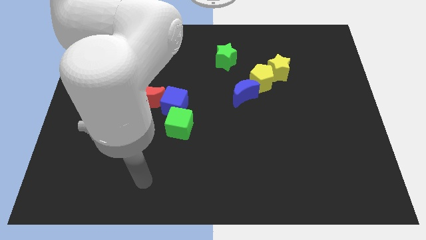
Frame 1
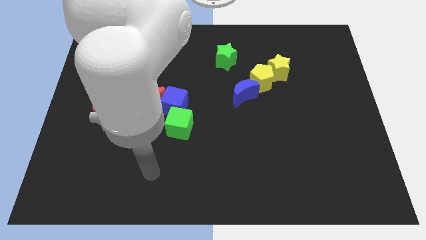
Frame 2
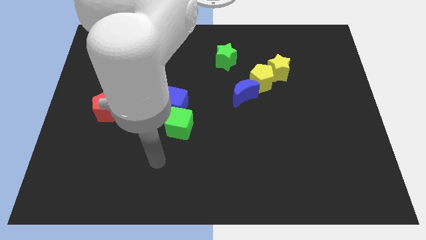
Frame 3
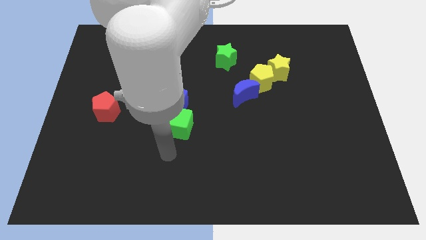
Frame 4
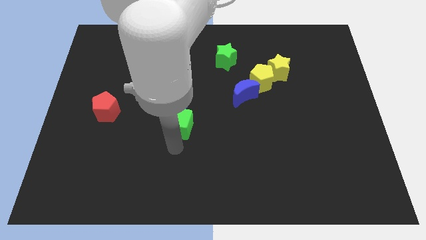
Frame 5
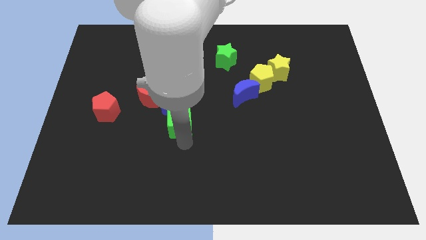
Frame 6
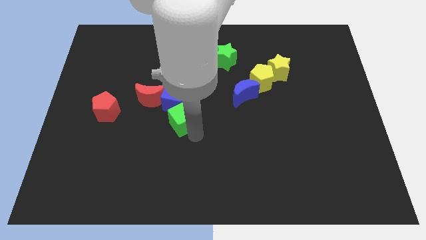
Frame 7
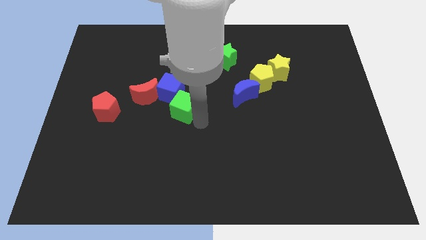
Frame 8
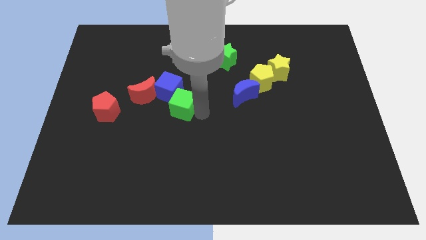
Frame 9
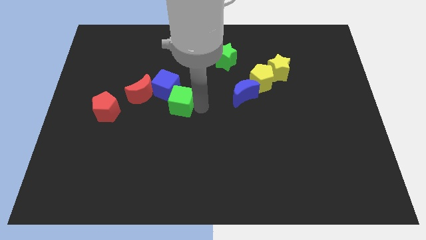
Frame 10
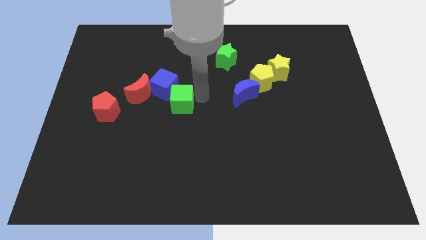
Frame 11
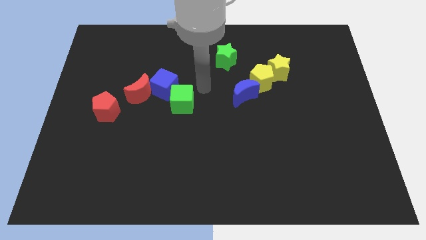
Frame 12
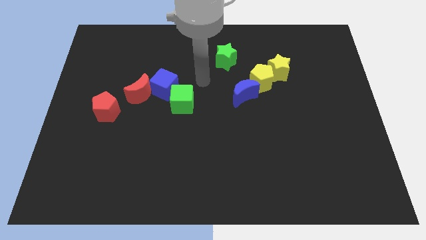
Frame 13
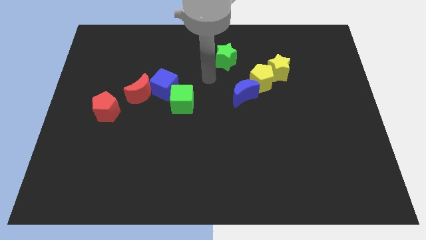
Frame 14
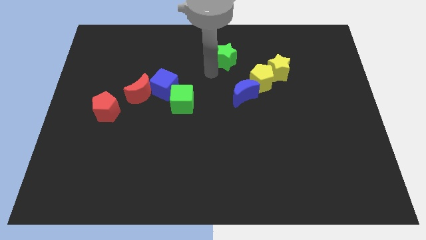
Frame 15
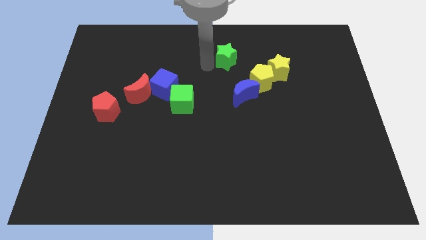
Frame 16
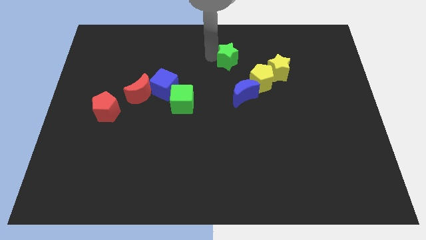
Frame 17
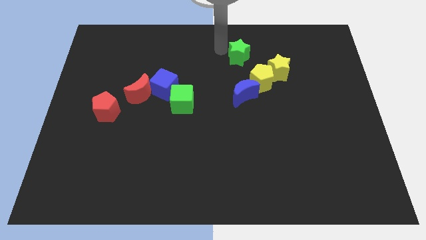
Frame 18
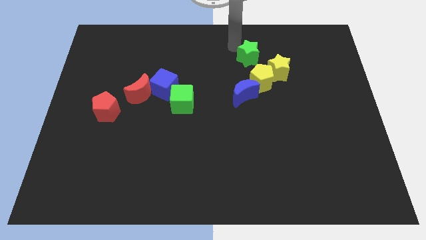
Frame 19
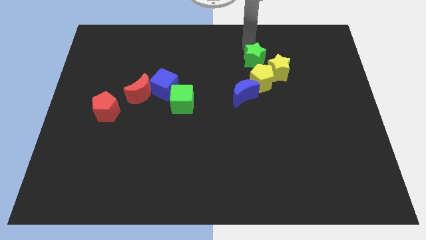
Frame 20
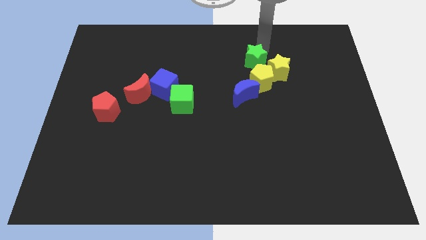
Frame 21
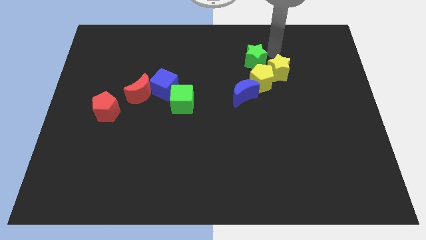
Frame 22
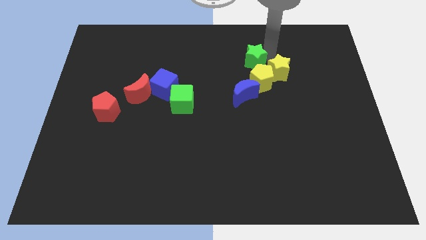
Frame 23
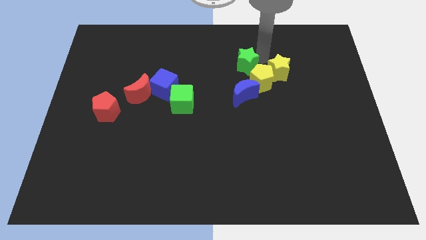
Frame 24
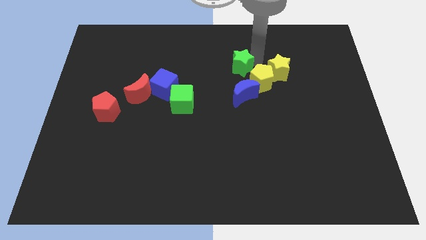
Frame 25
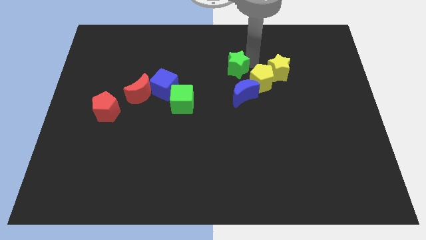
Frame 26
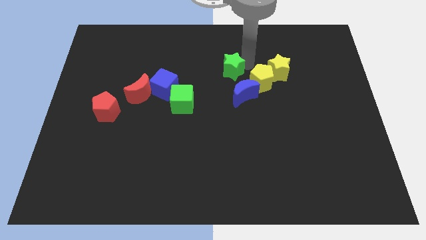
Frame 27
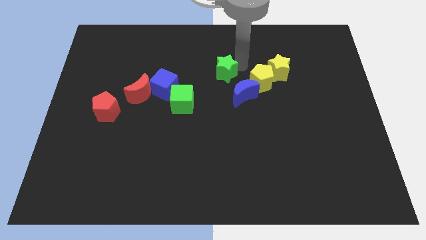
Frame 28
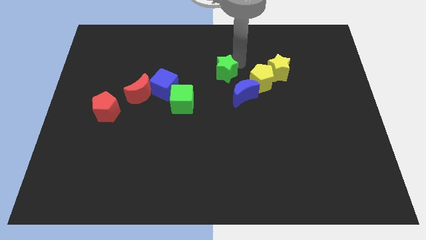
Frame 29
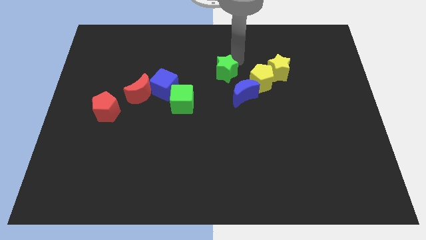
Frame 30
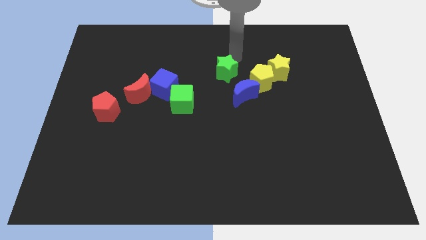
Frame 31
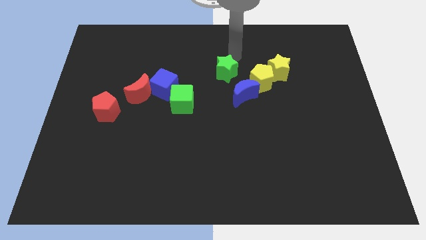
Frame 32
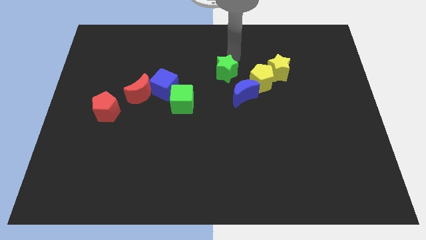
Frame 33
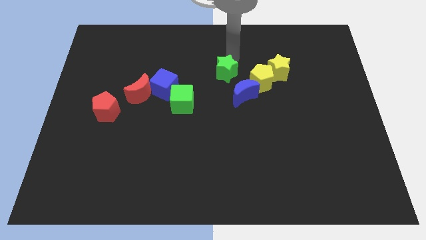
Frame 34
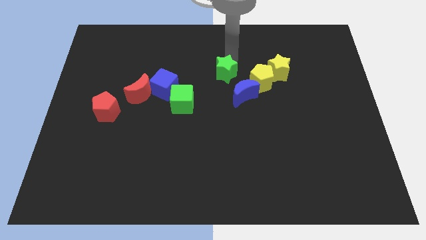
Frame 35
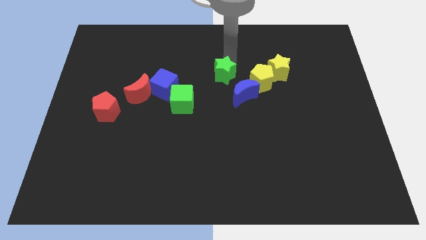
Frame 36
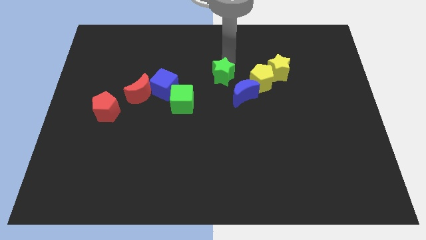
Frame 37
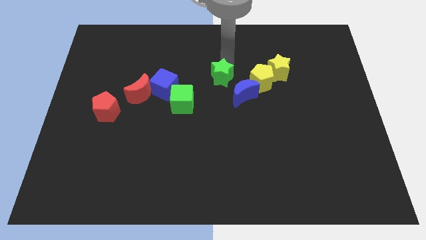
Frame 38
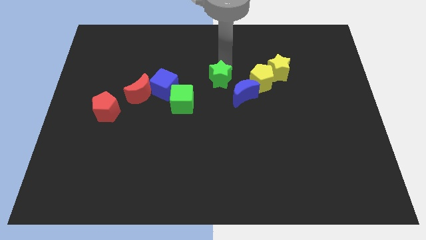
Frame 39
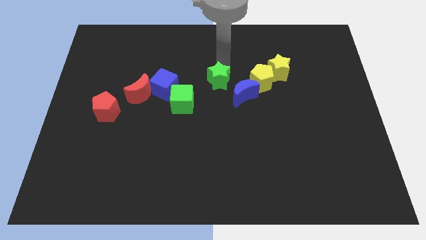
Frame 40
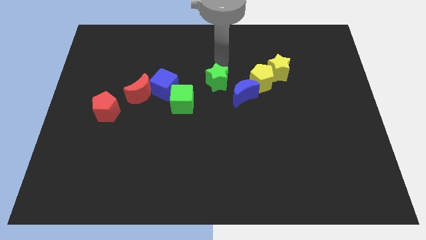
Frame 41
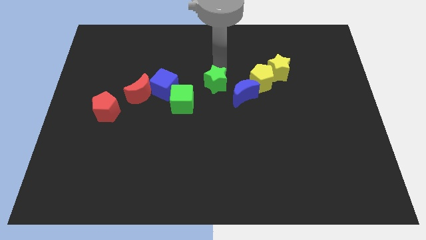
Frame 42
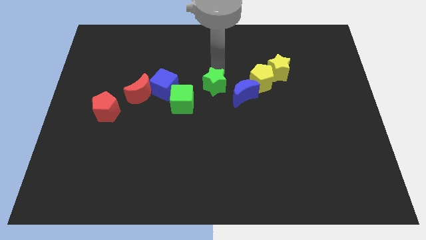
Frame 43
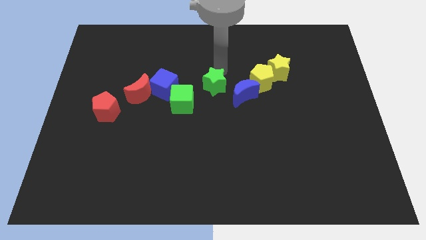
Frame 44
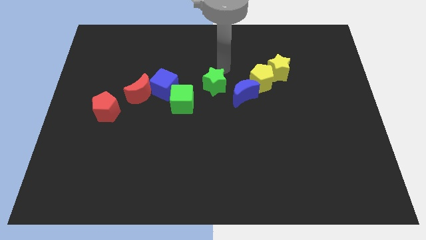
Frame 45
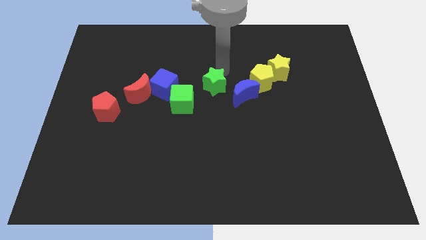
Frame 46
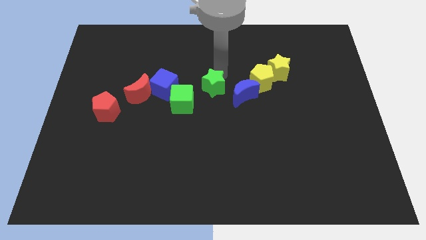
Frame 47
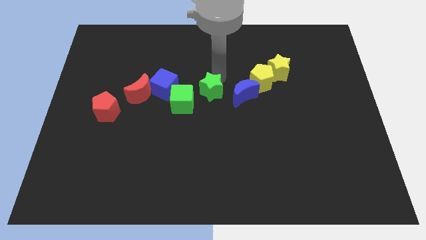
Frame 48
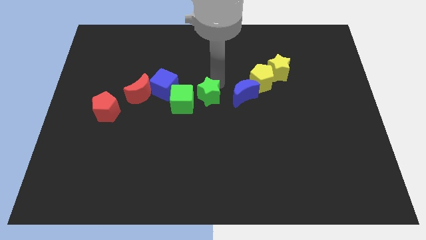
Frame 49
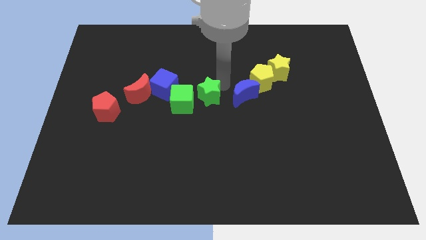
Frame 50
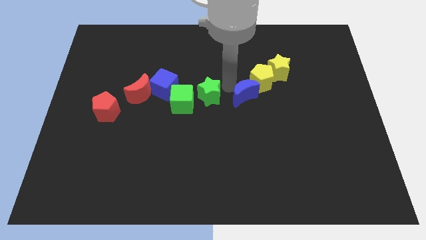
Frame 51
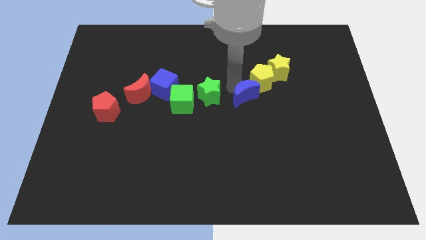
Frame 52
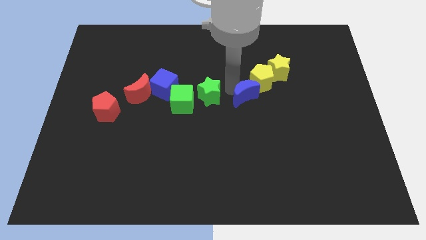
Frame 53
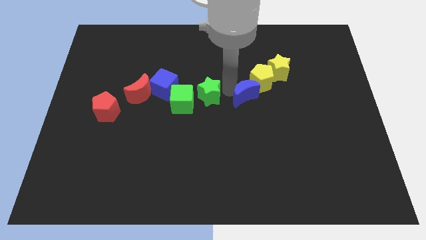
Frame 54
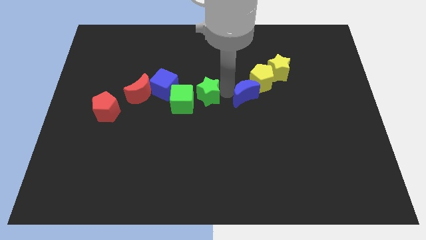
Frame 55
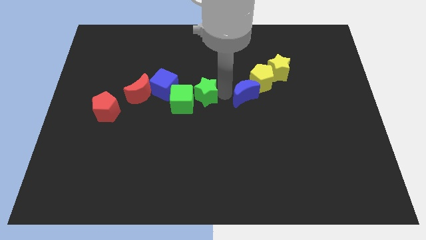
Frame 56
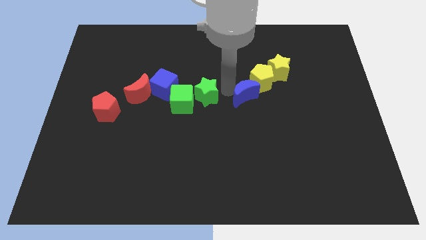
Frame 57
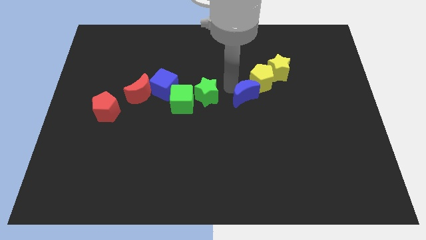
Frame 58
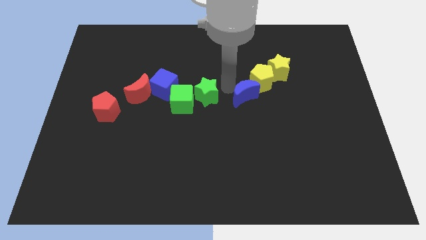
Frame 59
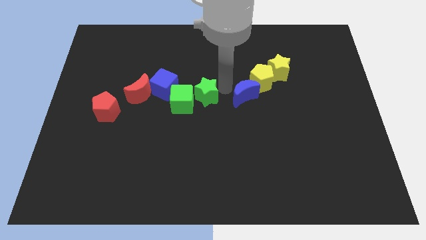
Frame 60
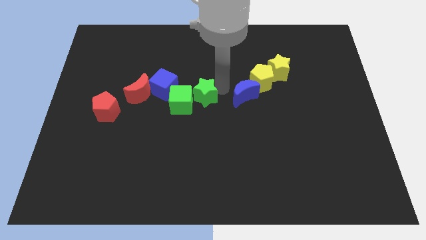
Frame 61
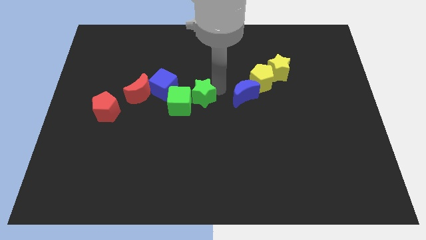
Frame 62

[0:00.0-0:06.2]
move the green star to the bottom right of the blue cube

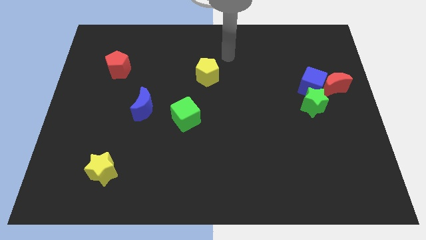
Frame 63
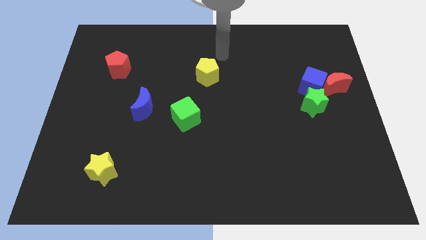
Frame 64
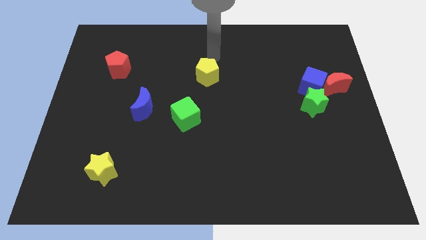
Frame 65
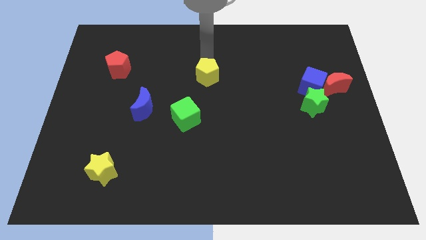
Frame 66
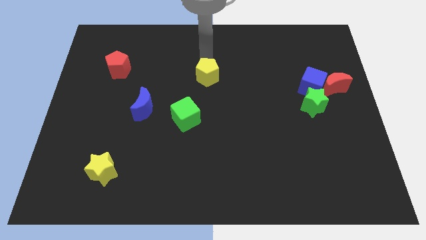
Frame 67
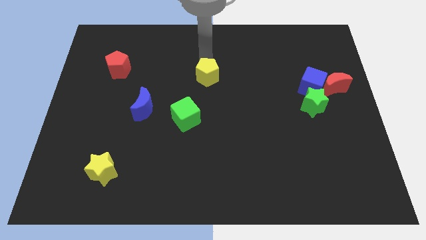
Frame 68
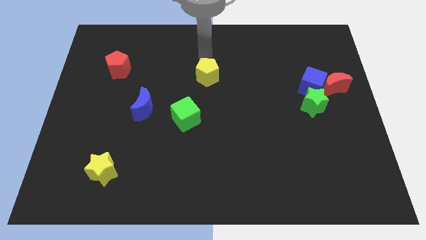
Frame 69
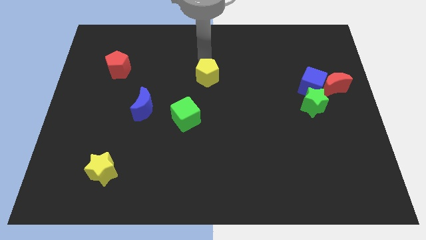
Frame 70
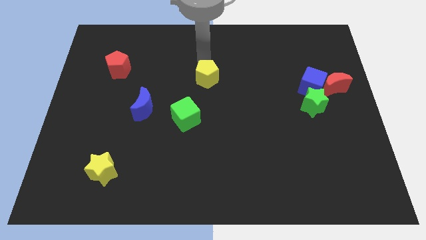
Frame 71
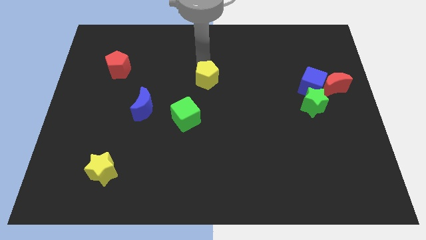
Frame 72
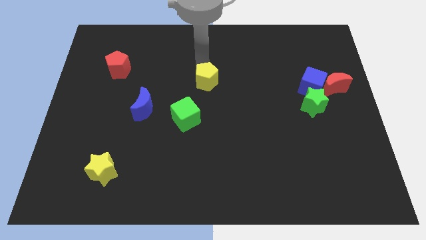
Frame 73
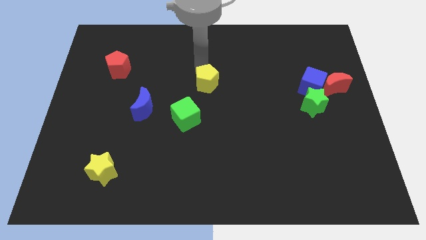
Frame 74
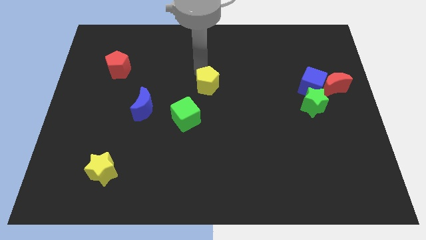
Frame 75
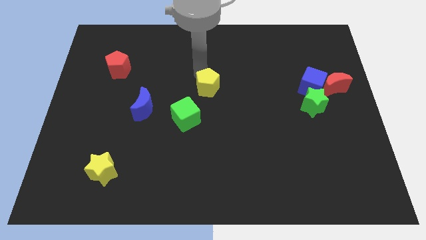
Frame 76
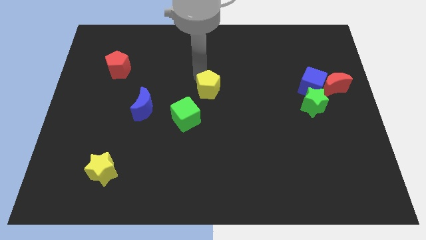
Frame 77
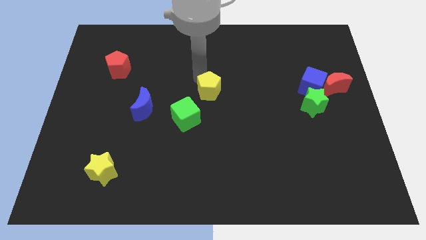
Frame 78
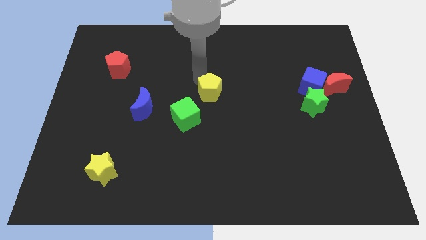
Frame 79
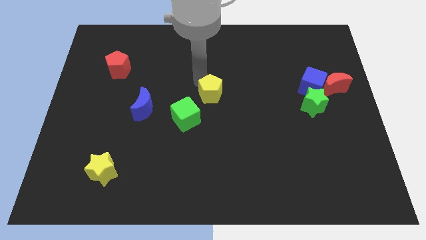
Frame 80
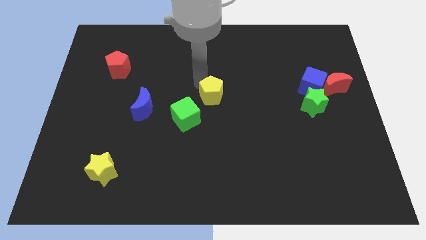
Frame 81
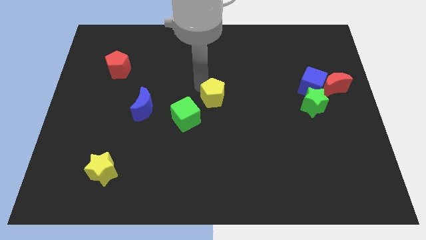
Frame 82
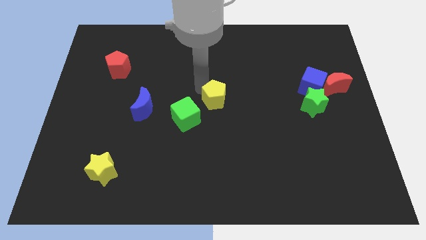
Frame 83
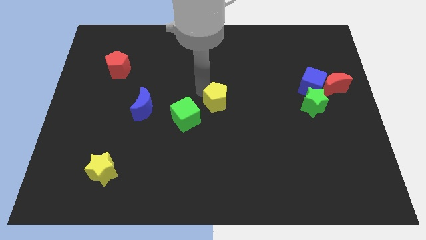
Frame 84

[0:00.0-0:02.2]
slide the yellow pentagon just right of the green cube
